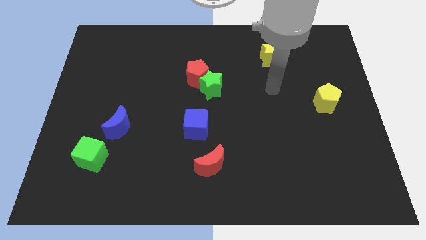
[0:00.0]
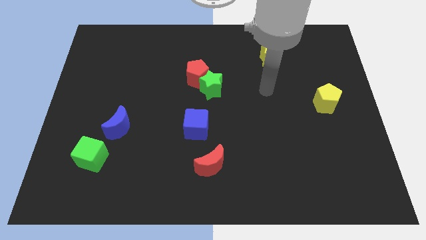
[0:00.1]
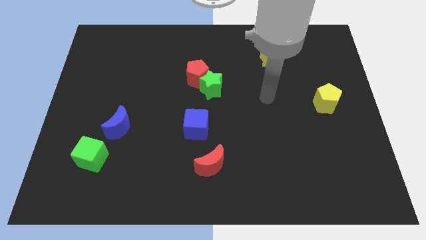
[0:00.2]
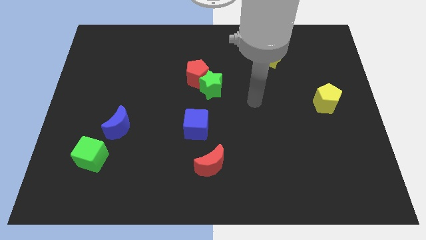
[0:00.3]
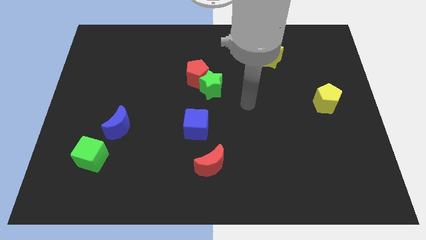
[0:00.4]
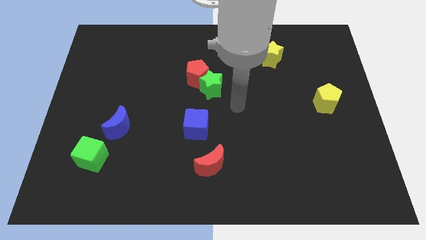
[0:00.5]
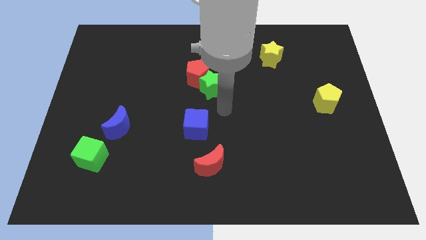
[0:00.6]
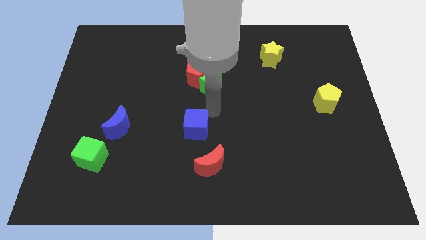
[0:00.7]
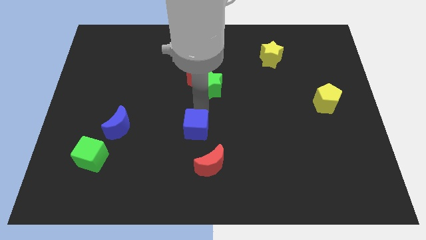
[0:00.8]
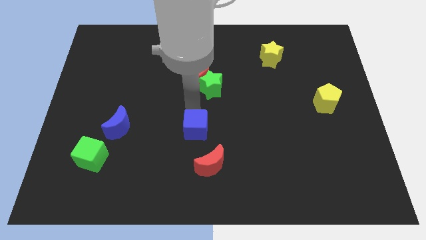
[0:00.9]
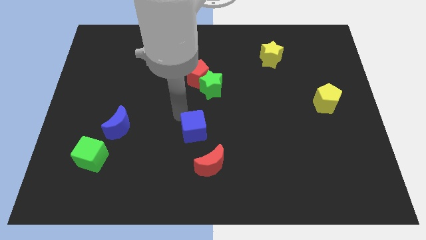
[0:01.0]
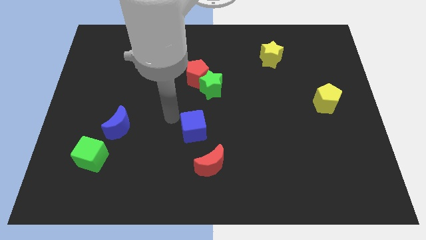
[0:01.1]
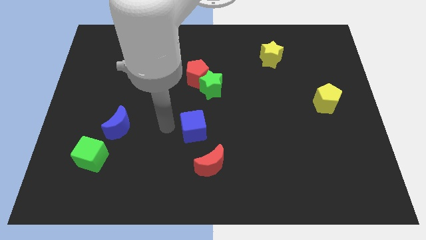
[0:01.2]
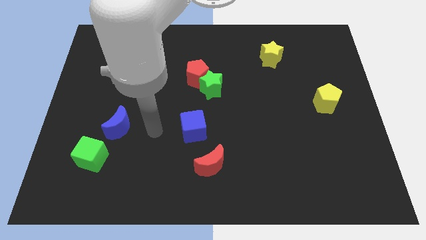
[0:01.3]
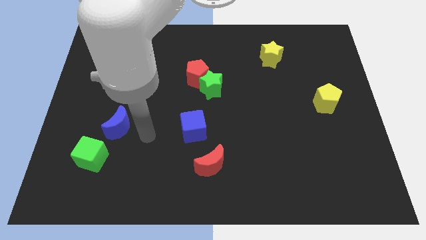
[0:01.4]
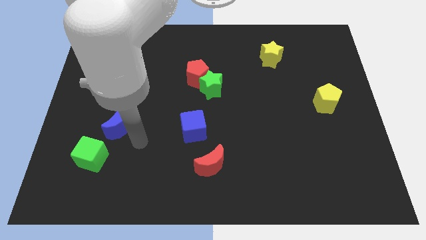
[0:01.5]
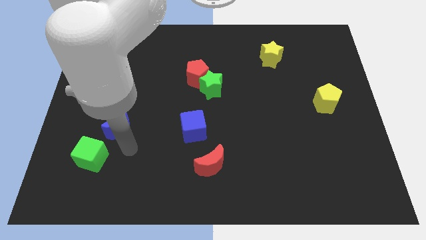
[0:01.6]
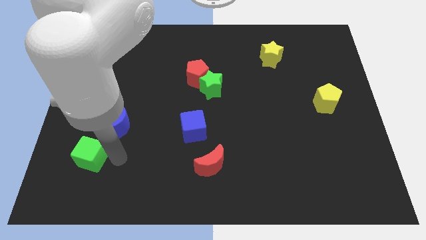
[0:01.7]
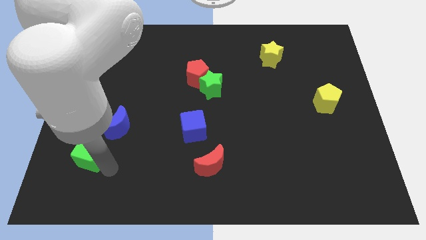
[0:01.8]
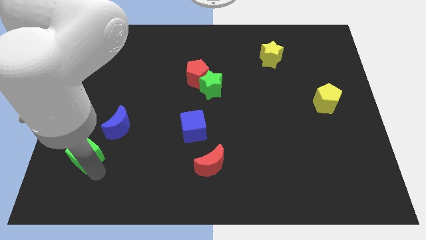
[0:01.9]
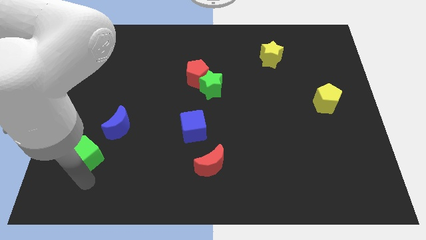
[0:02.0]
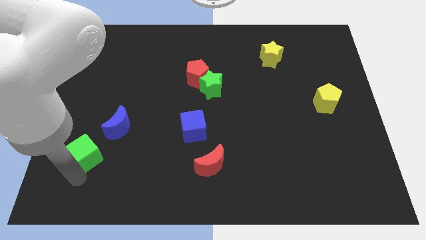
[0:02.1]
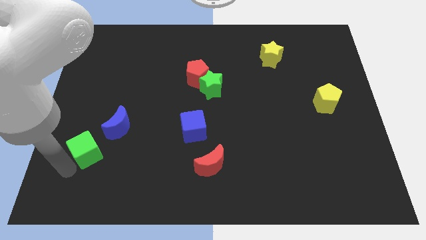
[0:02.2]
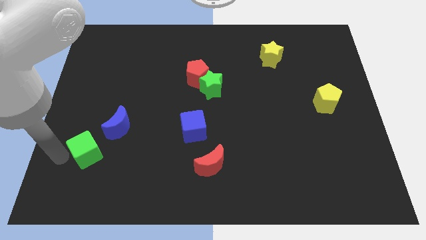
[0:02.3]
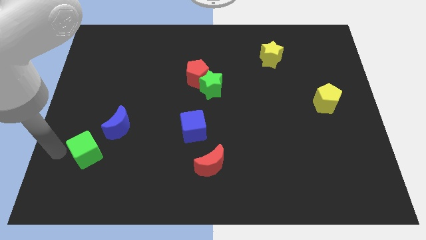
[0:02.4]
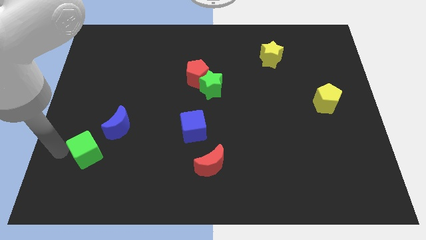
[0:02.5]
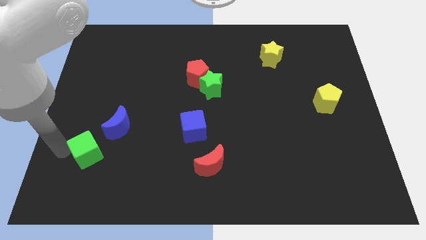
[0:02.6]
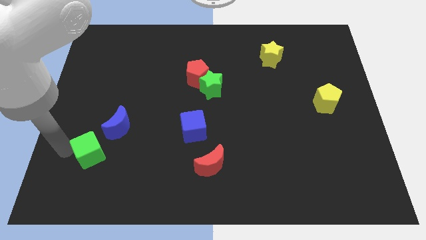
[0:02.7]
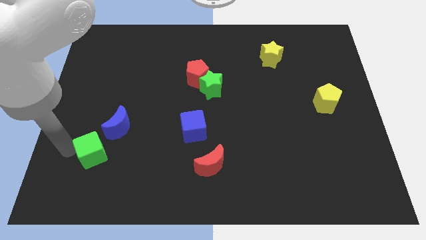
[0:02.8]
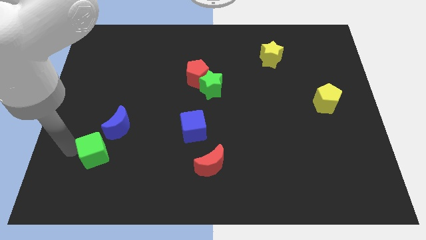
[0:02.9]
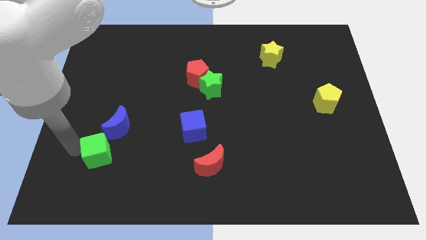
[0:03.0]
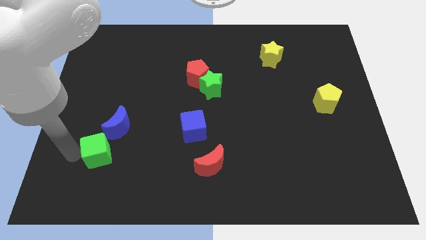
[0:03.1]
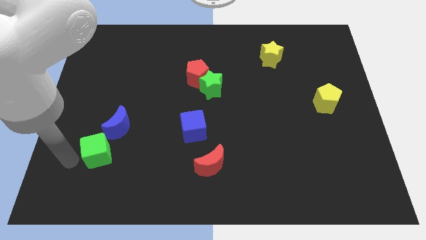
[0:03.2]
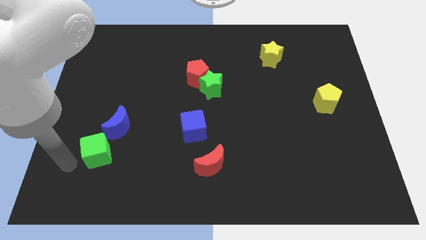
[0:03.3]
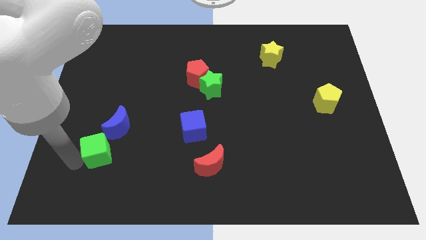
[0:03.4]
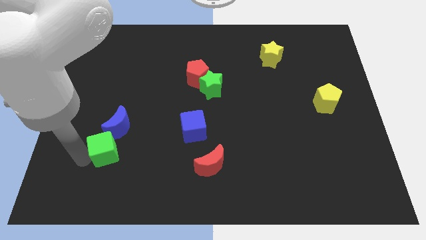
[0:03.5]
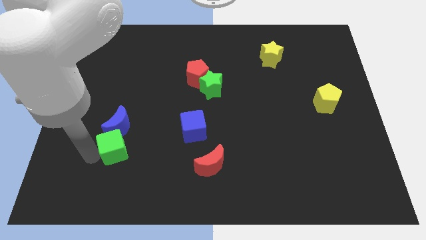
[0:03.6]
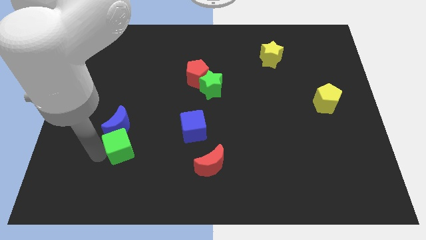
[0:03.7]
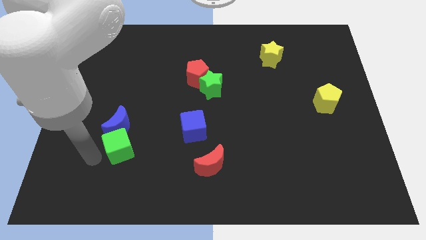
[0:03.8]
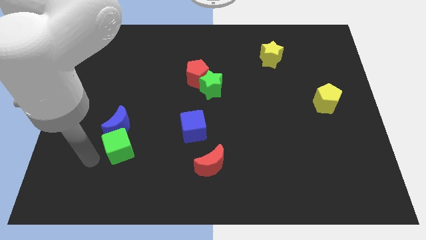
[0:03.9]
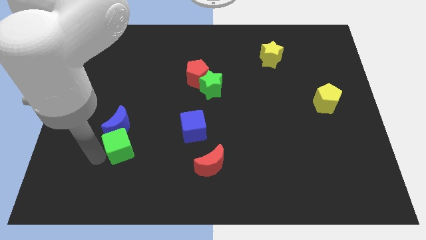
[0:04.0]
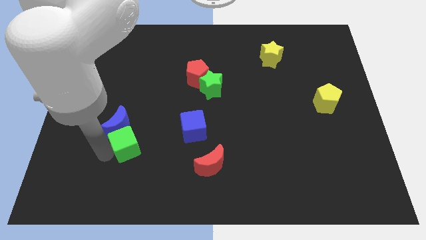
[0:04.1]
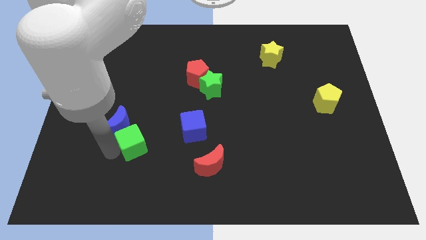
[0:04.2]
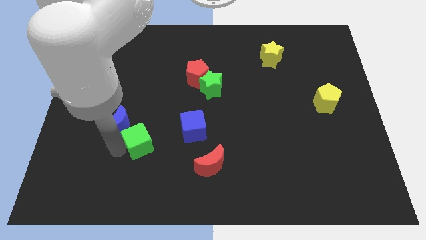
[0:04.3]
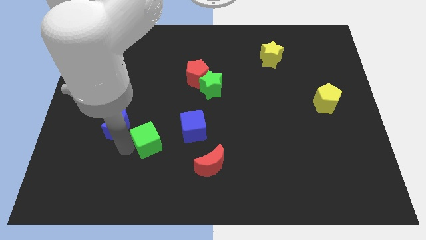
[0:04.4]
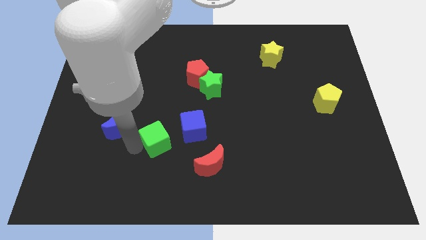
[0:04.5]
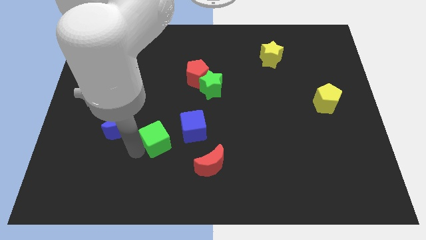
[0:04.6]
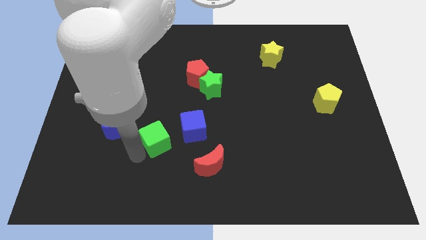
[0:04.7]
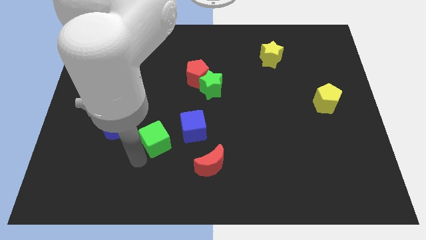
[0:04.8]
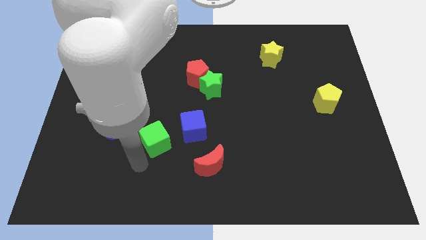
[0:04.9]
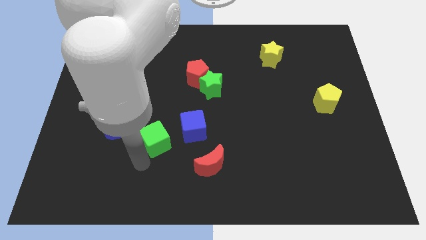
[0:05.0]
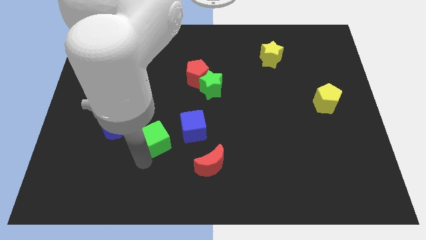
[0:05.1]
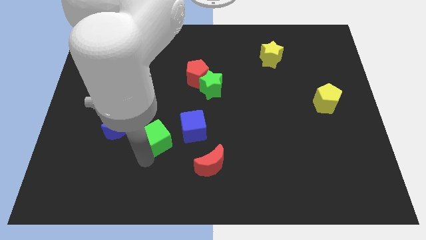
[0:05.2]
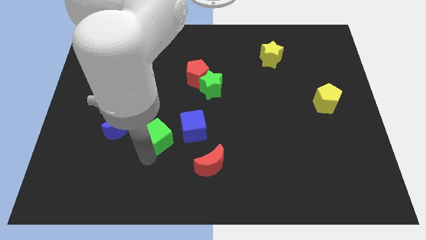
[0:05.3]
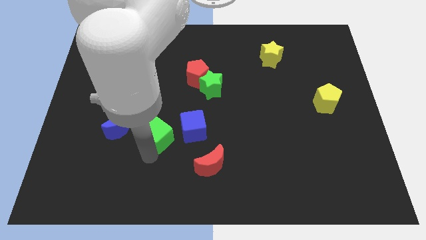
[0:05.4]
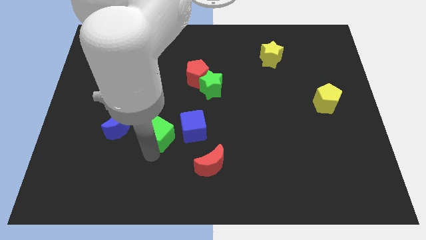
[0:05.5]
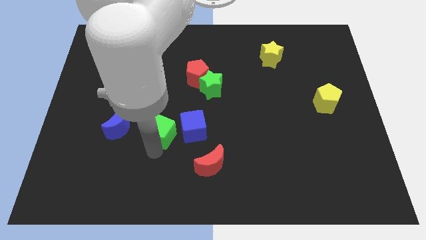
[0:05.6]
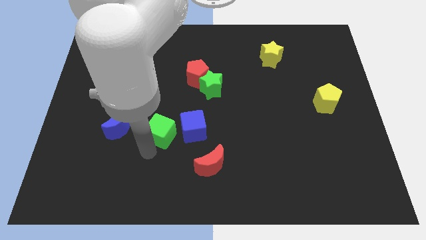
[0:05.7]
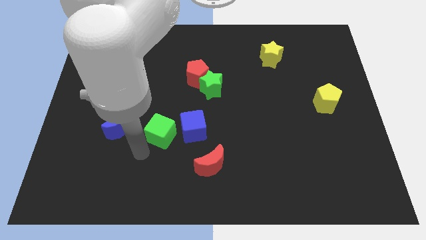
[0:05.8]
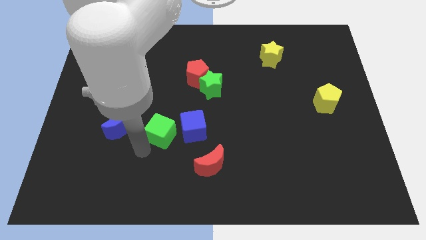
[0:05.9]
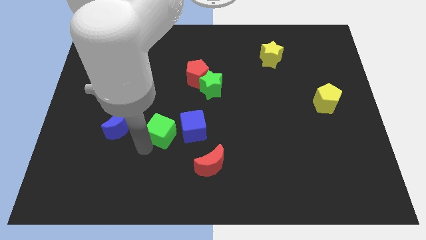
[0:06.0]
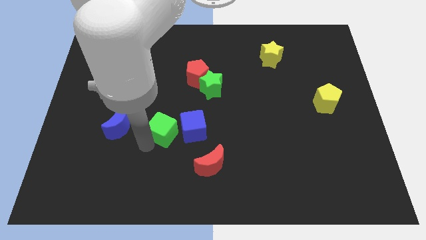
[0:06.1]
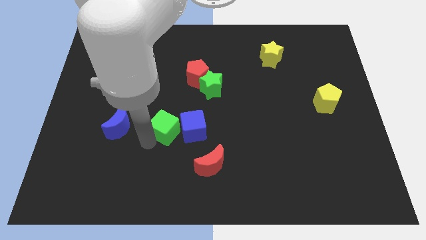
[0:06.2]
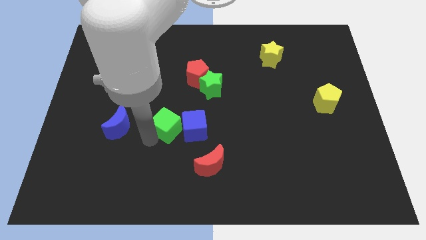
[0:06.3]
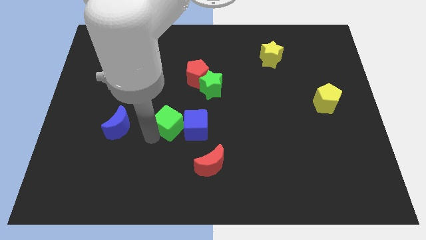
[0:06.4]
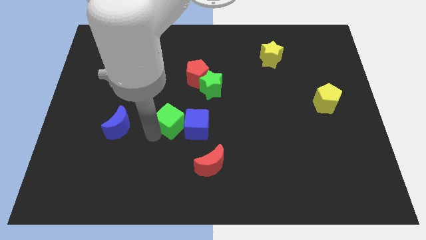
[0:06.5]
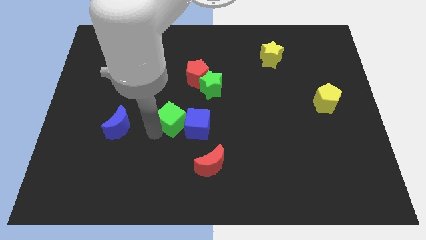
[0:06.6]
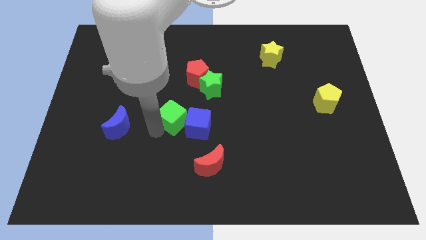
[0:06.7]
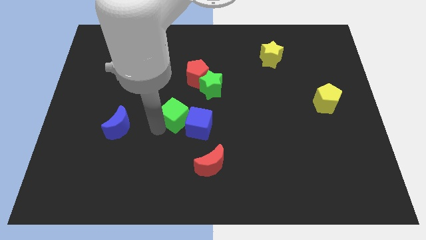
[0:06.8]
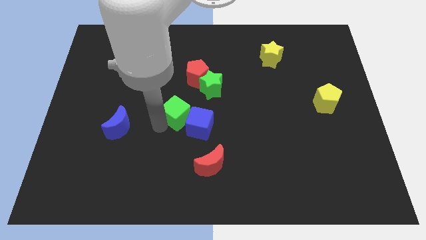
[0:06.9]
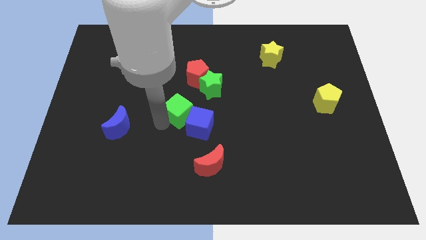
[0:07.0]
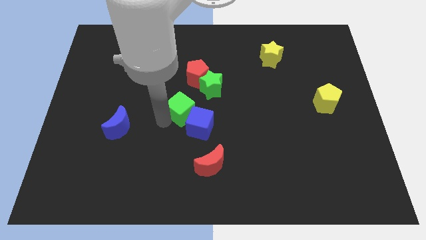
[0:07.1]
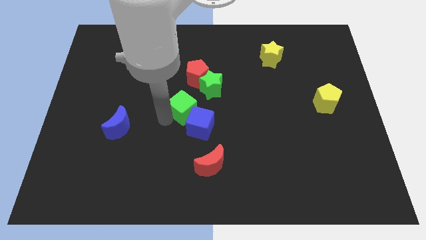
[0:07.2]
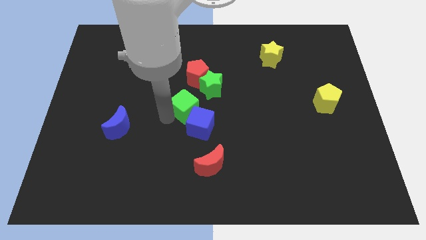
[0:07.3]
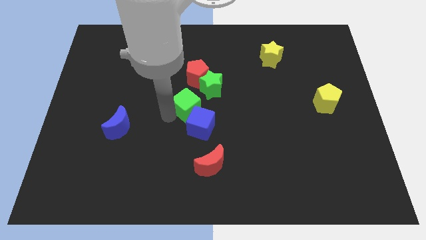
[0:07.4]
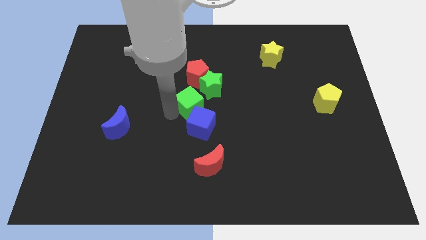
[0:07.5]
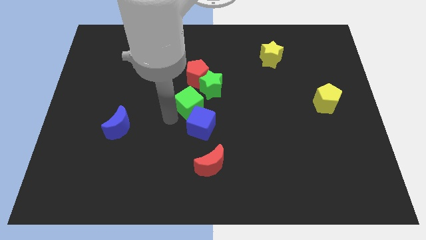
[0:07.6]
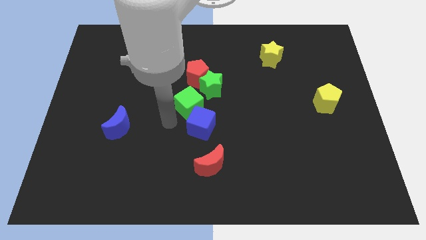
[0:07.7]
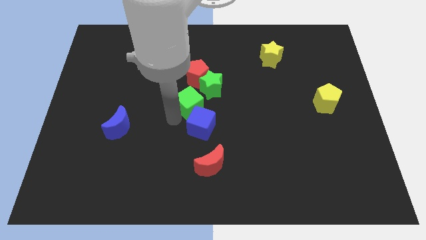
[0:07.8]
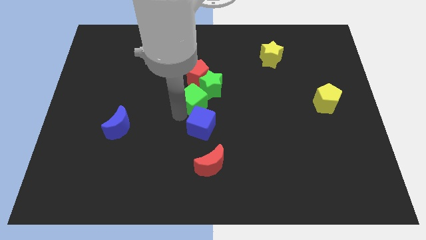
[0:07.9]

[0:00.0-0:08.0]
put the green cube next to the green star
